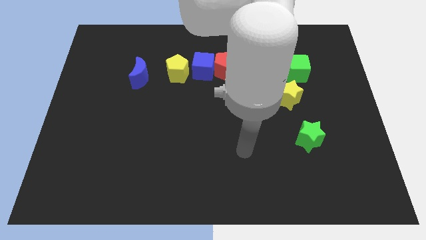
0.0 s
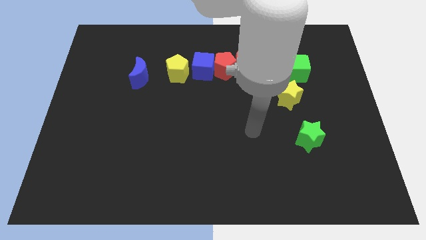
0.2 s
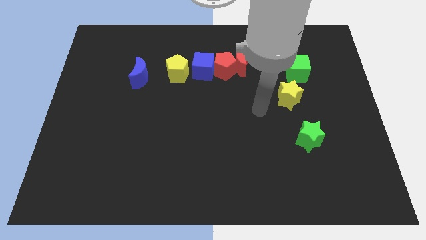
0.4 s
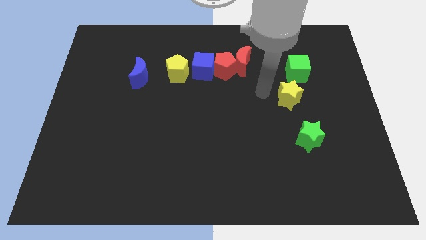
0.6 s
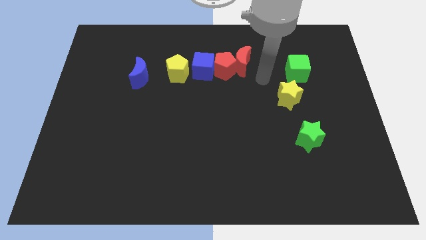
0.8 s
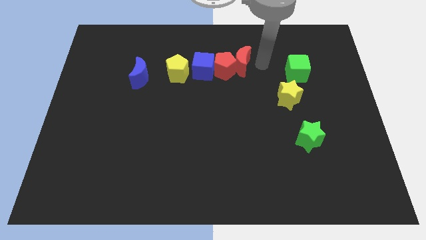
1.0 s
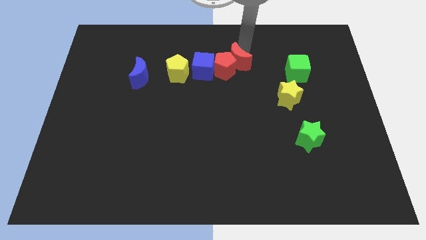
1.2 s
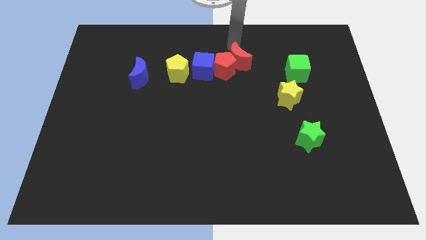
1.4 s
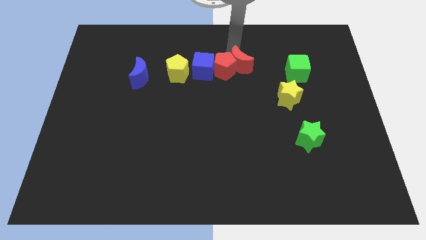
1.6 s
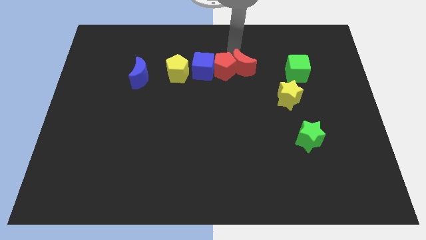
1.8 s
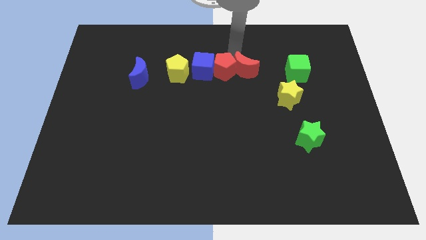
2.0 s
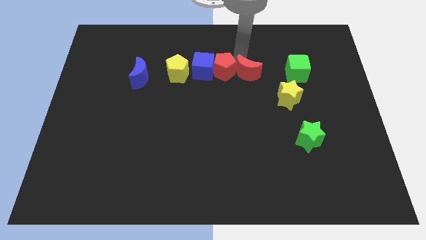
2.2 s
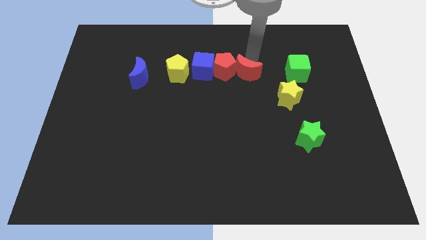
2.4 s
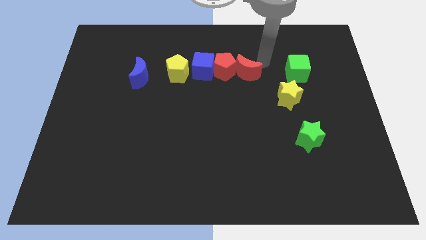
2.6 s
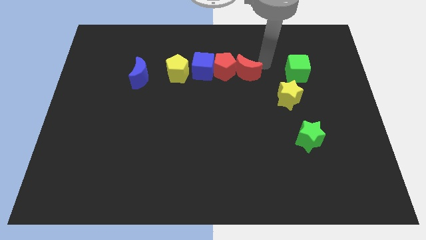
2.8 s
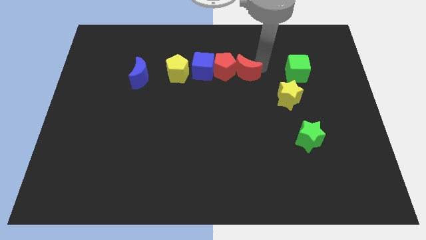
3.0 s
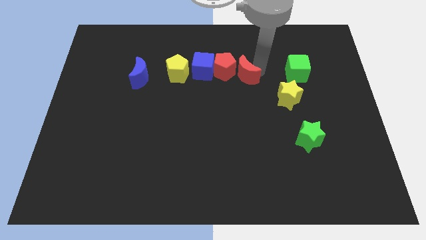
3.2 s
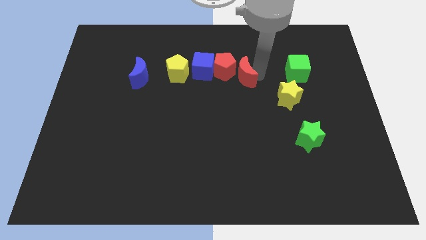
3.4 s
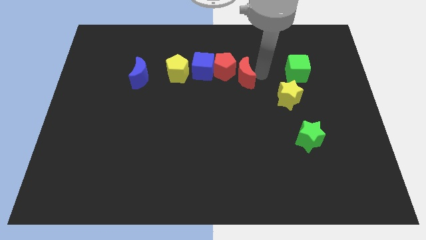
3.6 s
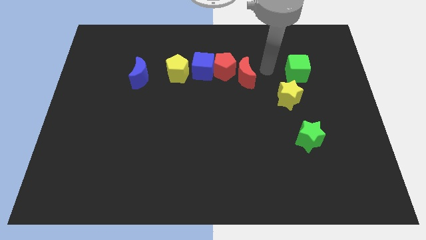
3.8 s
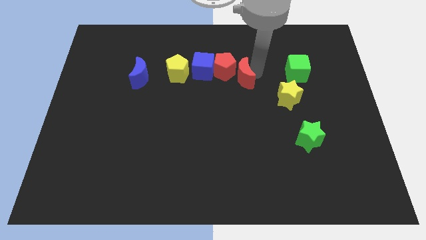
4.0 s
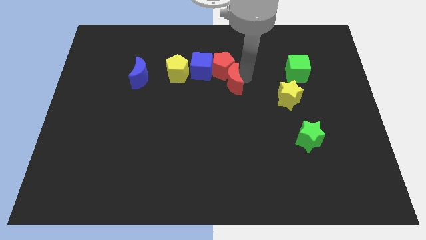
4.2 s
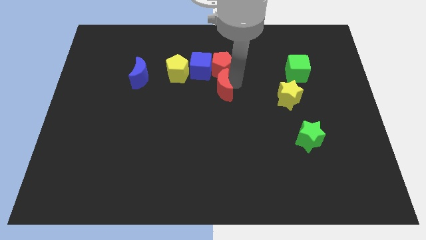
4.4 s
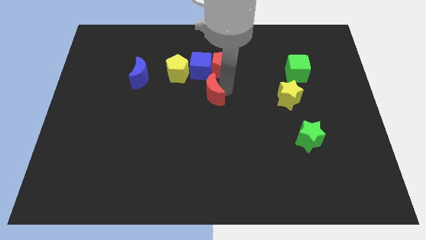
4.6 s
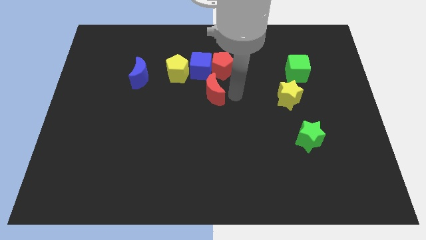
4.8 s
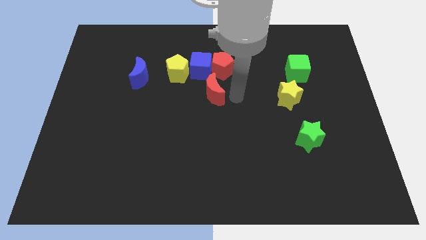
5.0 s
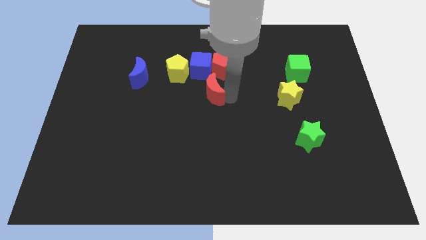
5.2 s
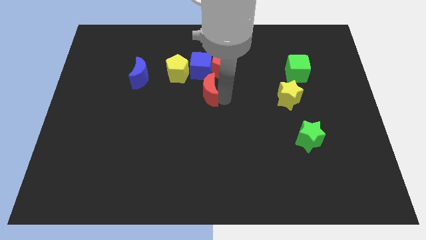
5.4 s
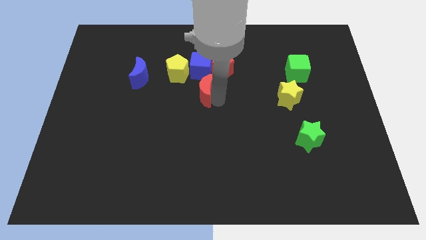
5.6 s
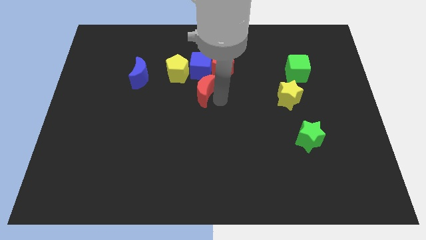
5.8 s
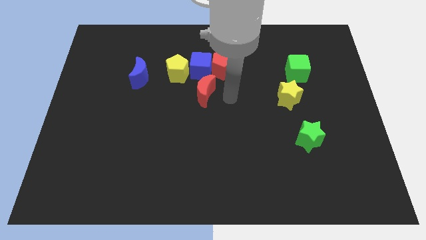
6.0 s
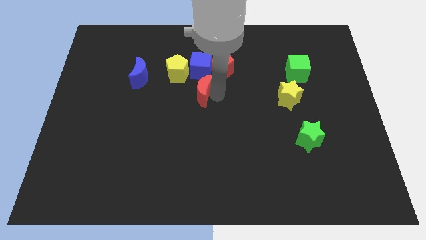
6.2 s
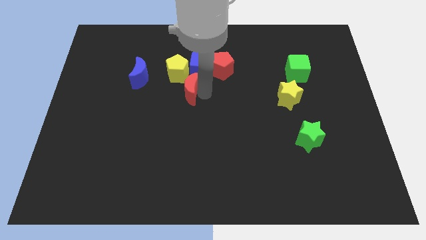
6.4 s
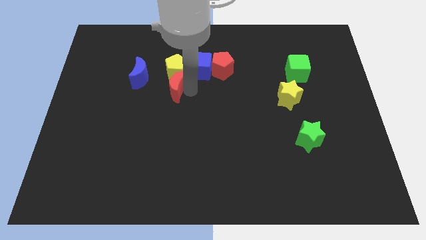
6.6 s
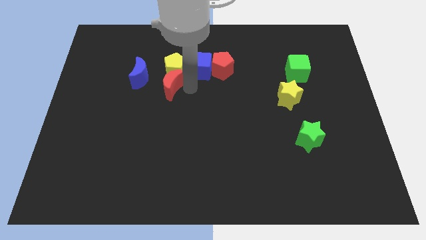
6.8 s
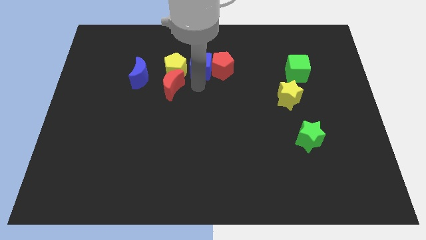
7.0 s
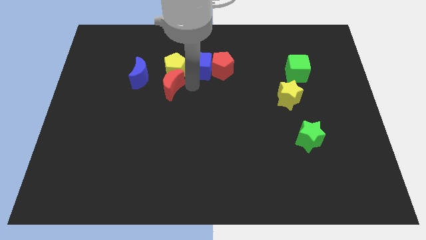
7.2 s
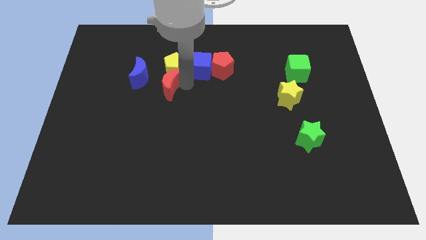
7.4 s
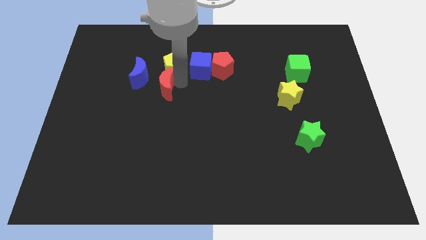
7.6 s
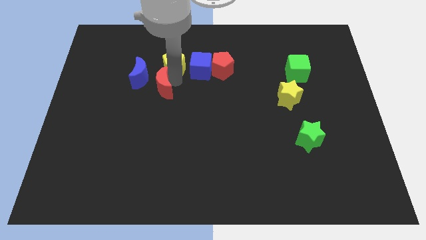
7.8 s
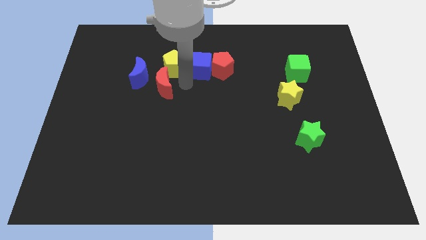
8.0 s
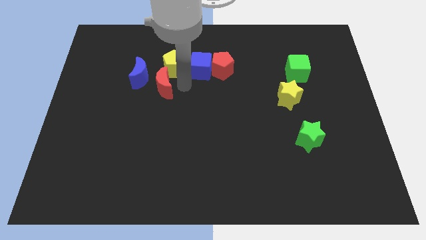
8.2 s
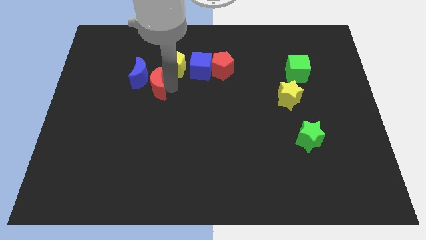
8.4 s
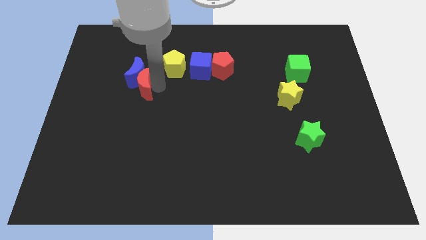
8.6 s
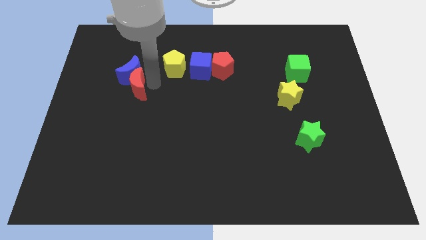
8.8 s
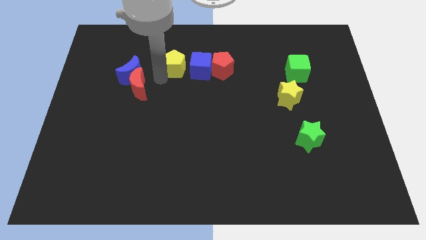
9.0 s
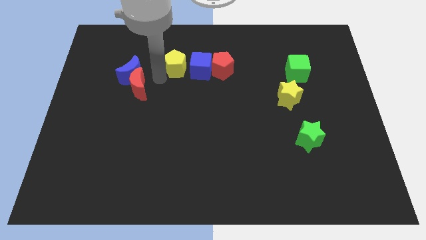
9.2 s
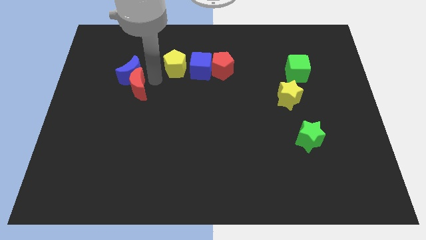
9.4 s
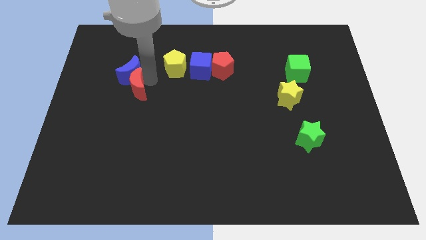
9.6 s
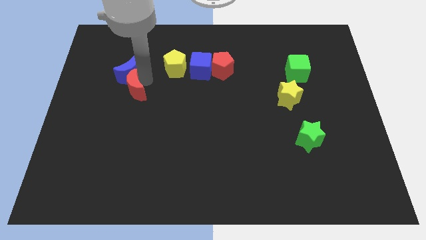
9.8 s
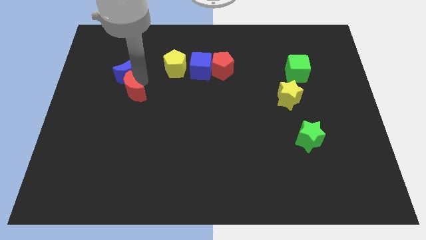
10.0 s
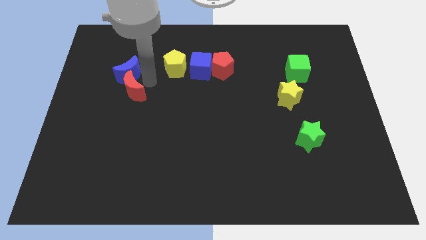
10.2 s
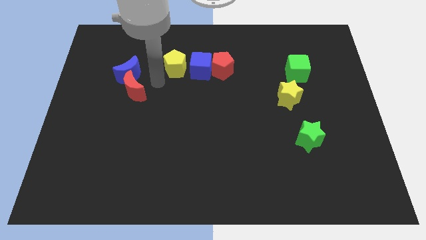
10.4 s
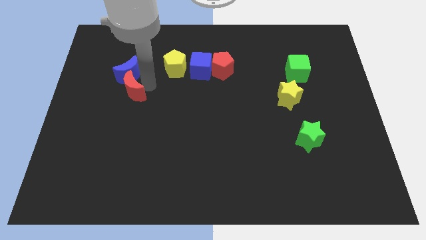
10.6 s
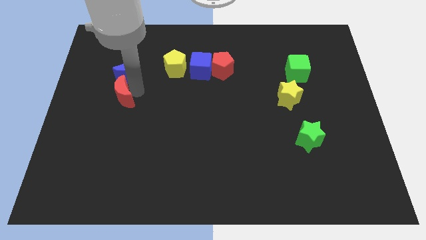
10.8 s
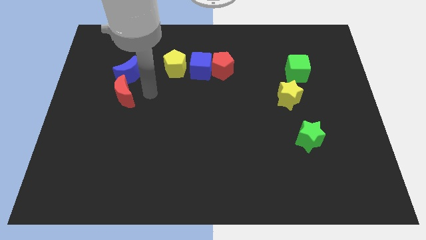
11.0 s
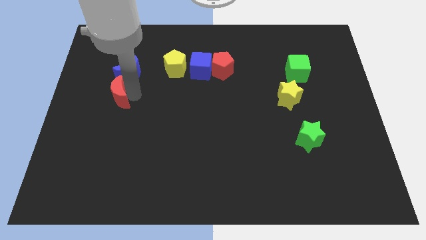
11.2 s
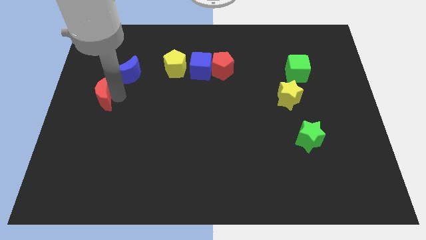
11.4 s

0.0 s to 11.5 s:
push the red moon to the left side of the board

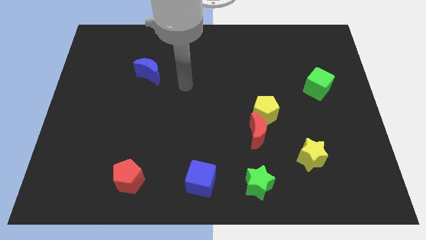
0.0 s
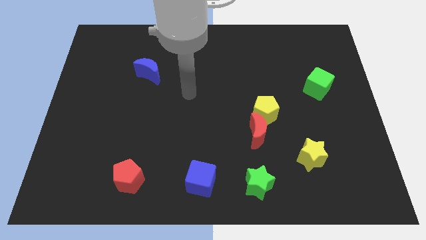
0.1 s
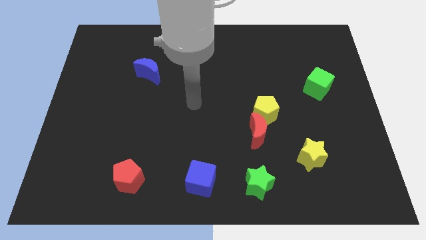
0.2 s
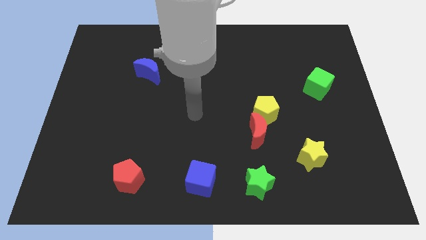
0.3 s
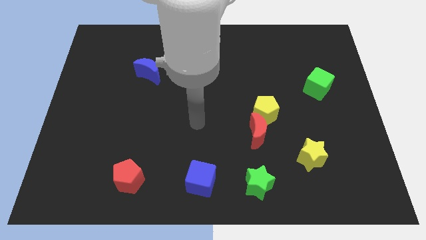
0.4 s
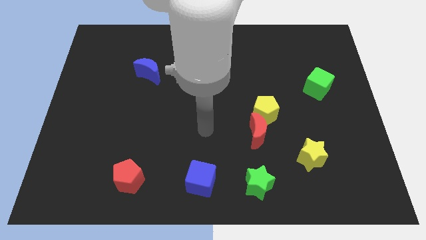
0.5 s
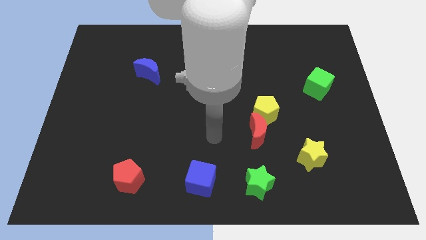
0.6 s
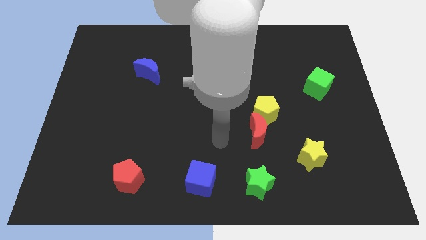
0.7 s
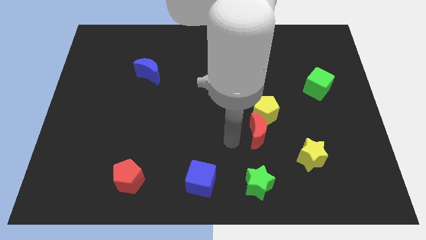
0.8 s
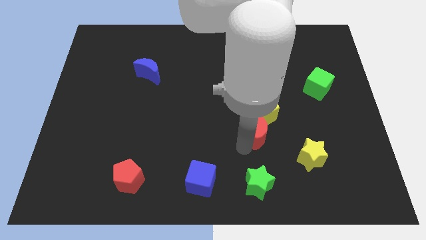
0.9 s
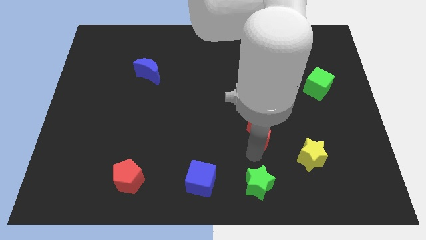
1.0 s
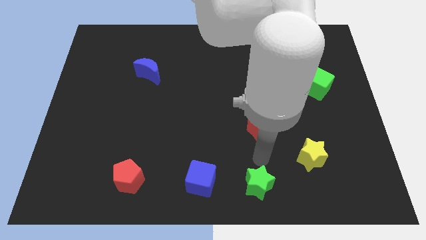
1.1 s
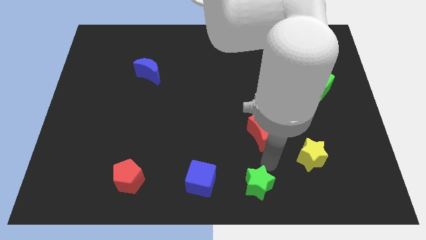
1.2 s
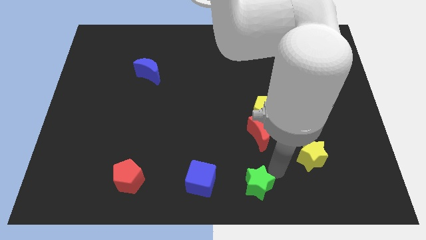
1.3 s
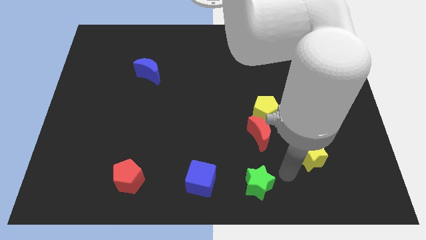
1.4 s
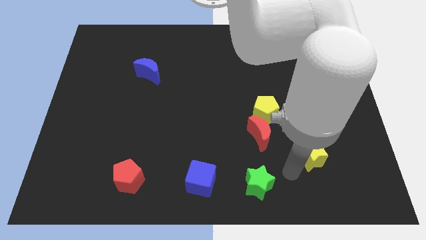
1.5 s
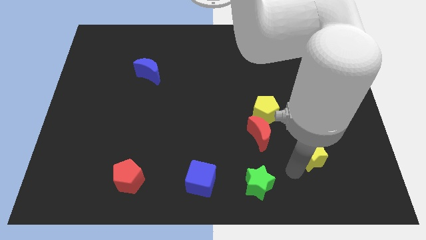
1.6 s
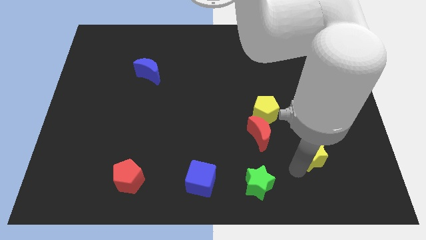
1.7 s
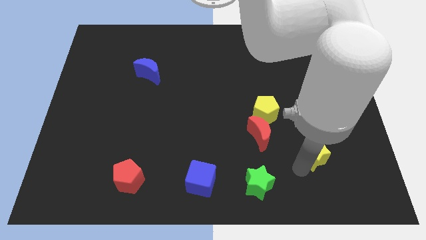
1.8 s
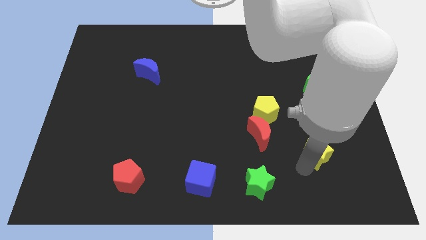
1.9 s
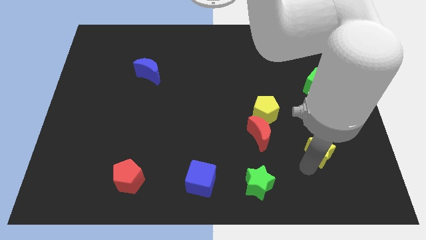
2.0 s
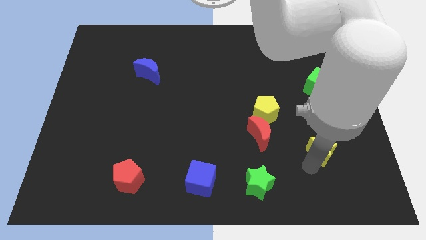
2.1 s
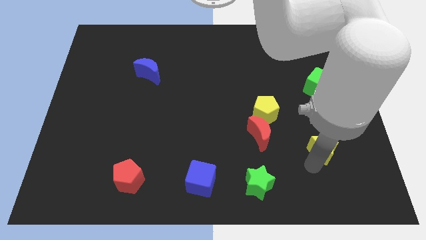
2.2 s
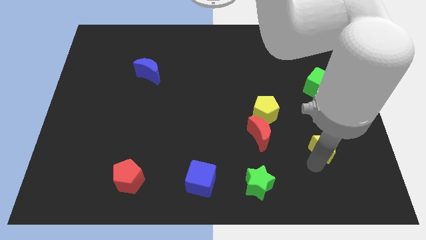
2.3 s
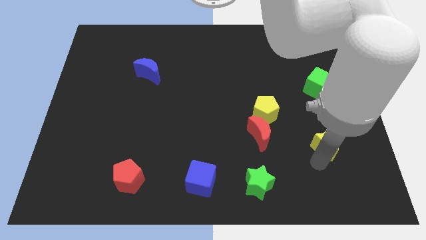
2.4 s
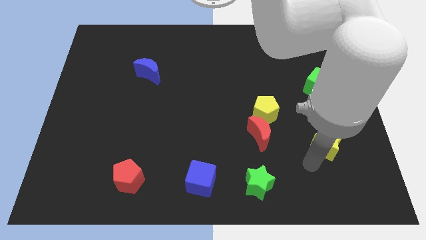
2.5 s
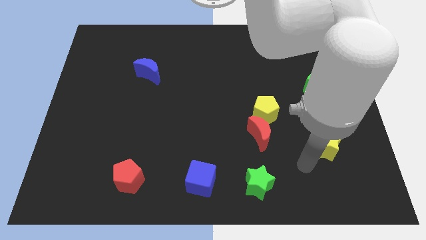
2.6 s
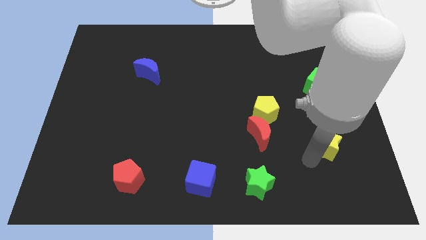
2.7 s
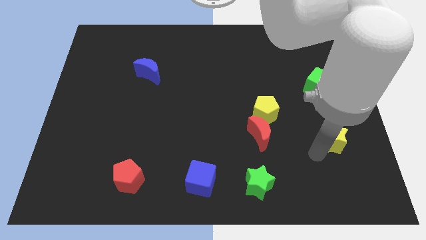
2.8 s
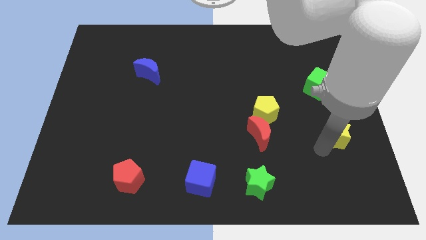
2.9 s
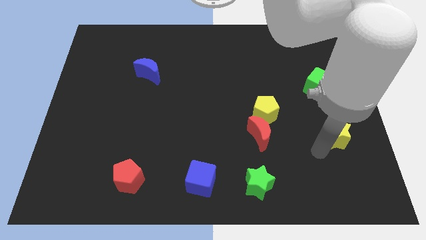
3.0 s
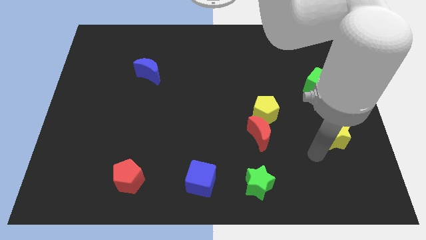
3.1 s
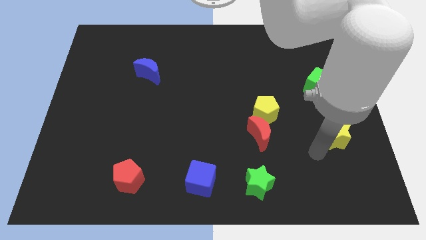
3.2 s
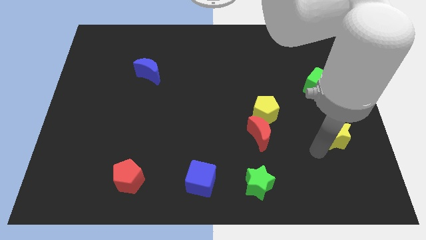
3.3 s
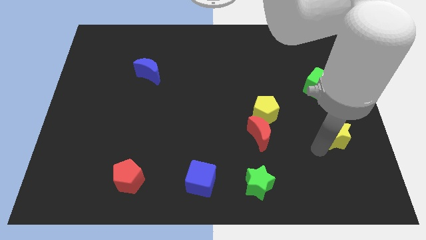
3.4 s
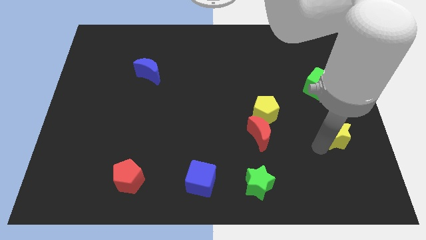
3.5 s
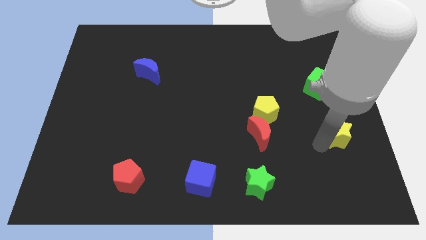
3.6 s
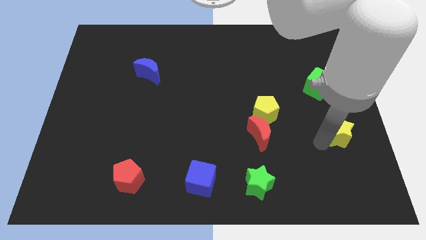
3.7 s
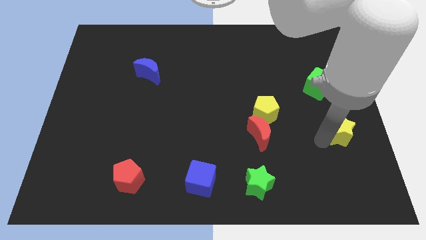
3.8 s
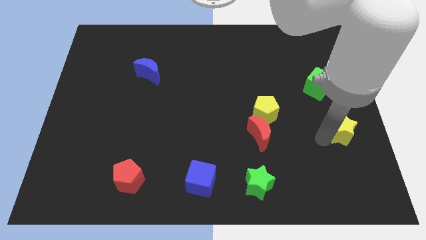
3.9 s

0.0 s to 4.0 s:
push the yellow star to the right side
